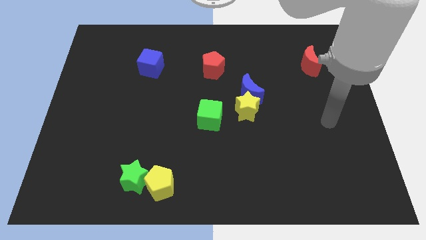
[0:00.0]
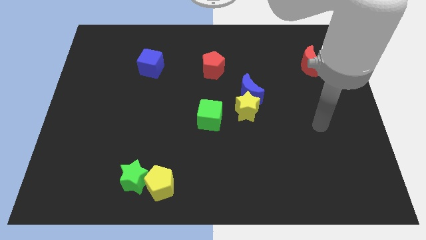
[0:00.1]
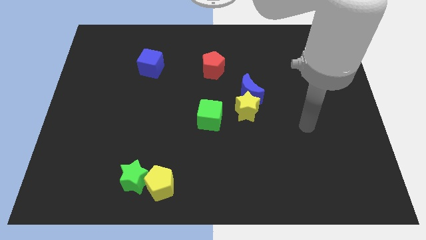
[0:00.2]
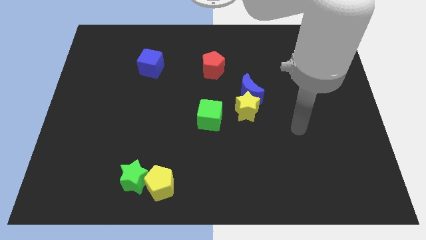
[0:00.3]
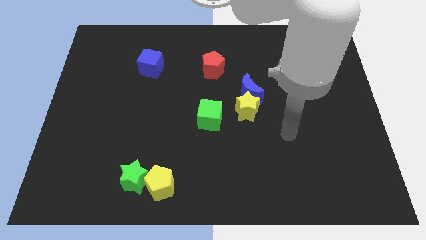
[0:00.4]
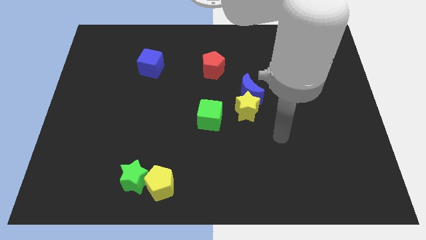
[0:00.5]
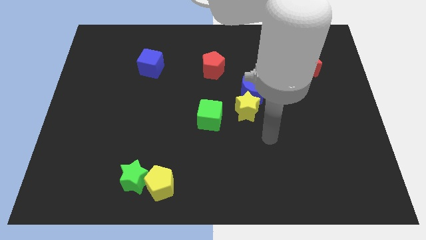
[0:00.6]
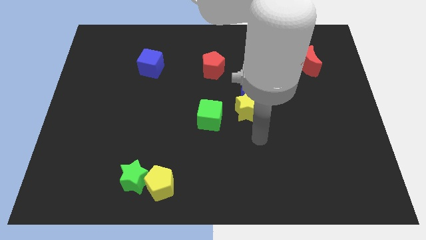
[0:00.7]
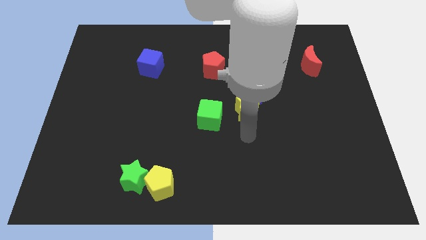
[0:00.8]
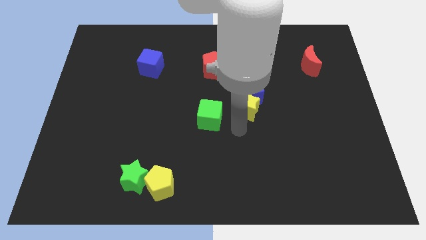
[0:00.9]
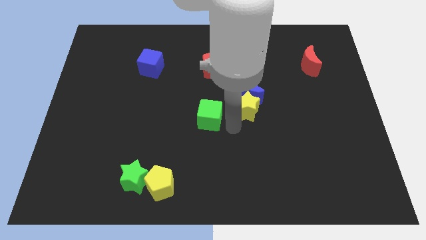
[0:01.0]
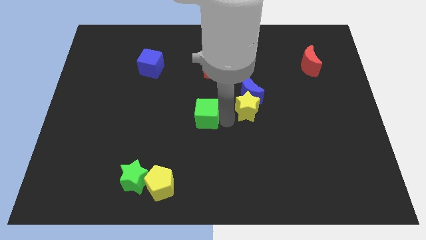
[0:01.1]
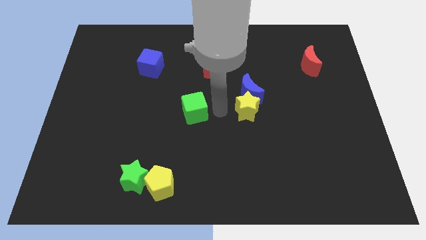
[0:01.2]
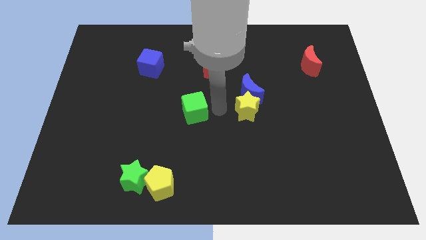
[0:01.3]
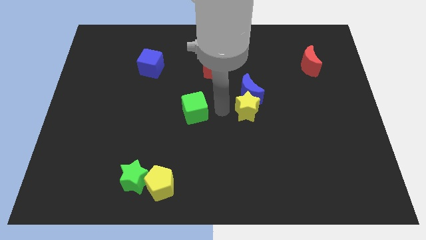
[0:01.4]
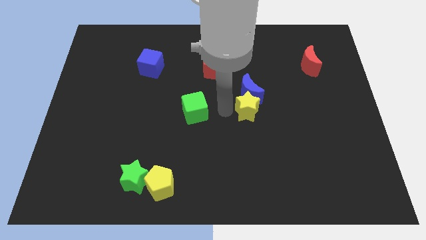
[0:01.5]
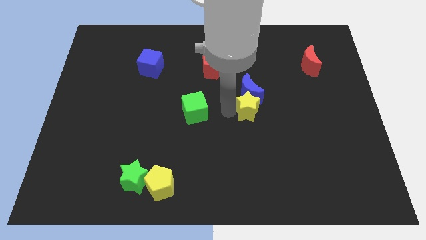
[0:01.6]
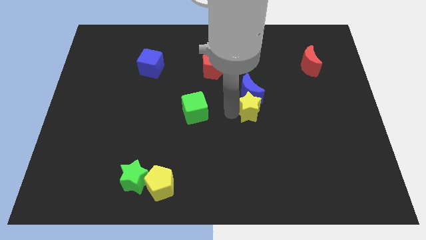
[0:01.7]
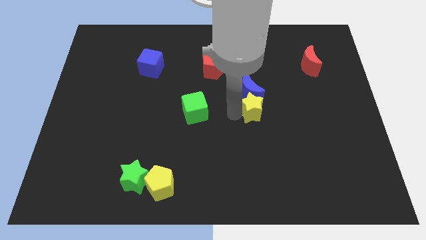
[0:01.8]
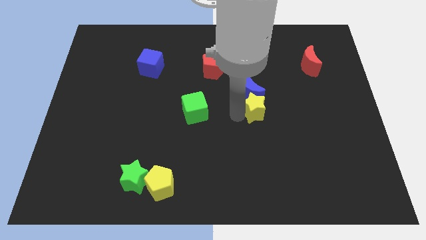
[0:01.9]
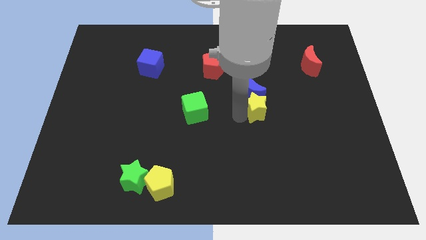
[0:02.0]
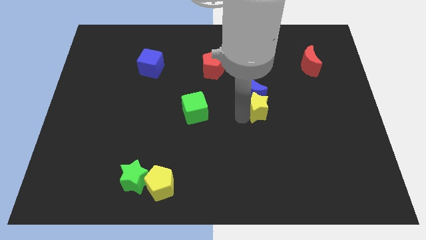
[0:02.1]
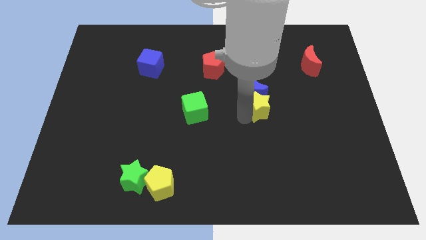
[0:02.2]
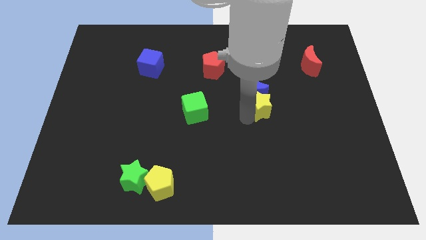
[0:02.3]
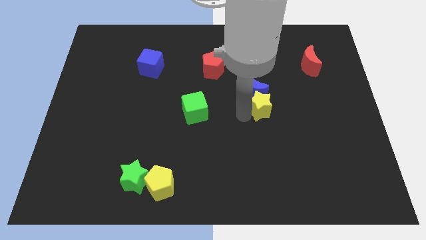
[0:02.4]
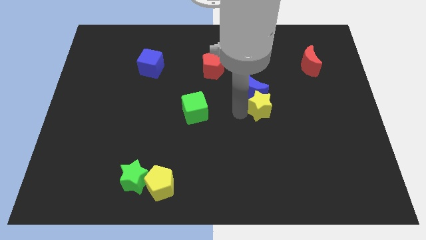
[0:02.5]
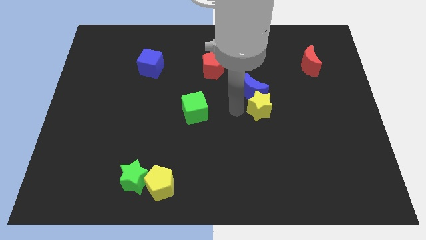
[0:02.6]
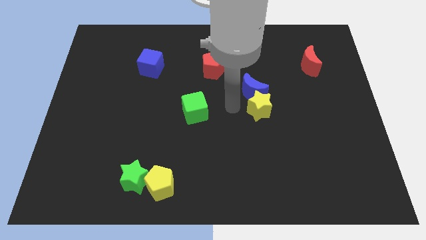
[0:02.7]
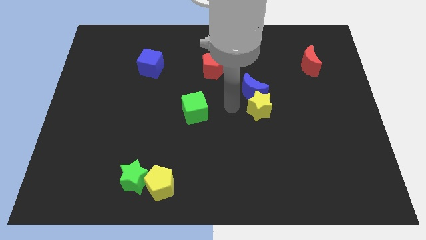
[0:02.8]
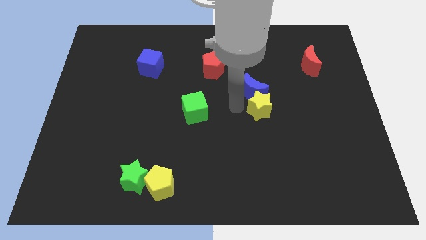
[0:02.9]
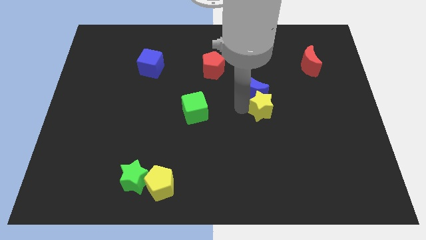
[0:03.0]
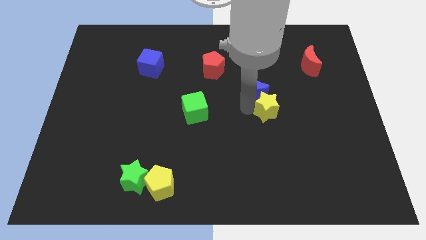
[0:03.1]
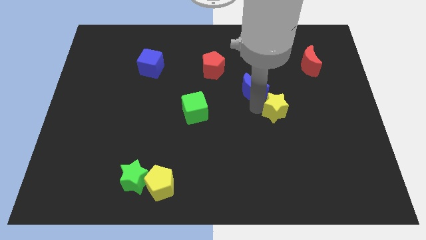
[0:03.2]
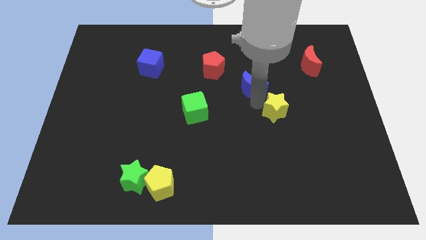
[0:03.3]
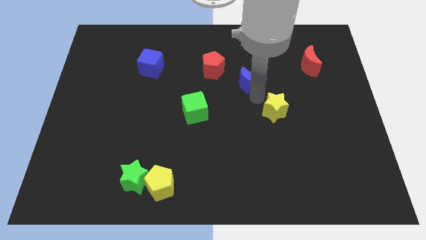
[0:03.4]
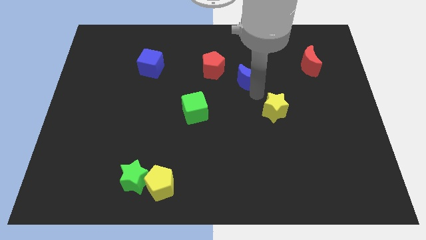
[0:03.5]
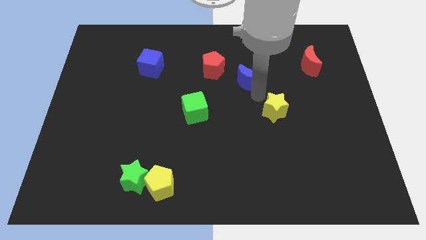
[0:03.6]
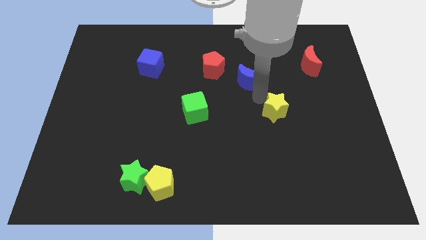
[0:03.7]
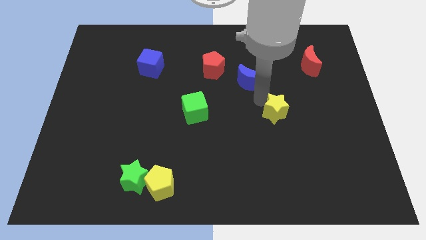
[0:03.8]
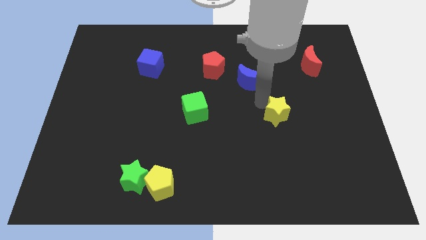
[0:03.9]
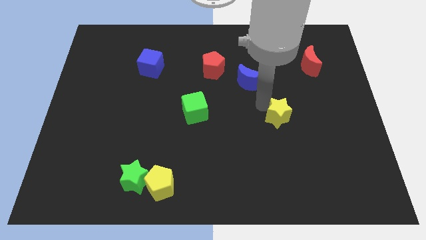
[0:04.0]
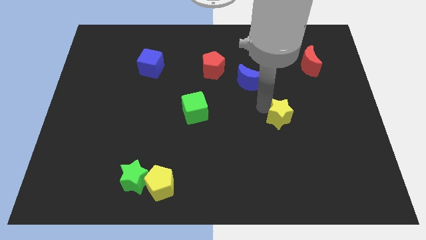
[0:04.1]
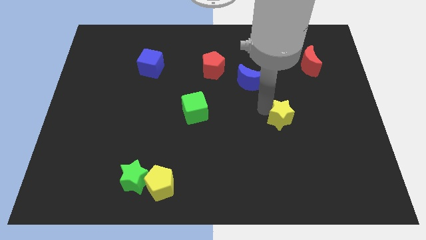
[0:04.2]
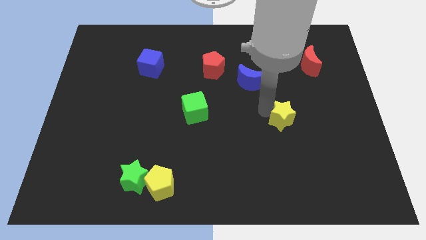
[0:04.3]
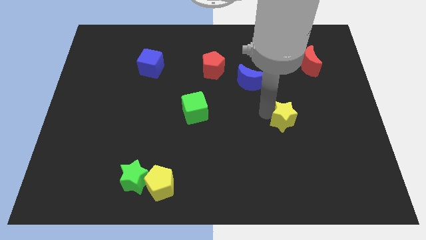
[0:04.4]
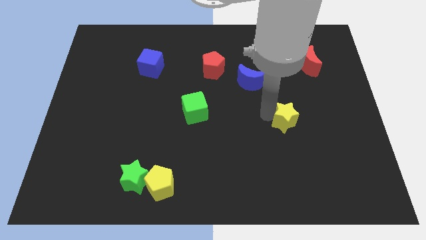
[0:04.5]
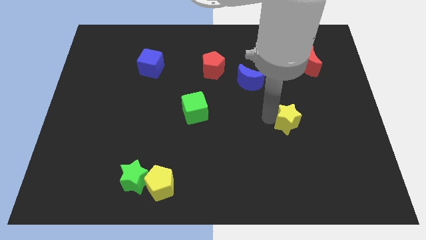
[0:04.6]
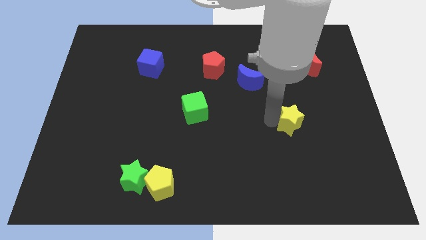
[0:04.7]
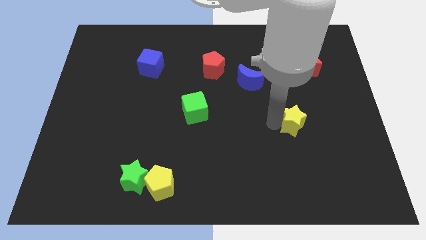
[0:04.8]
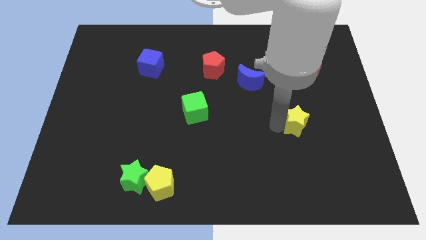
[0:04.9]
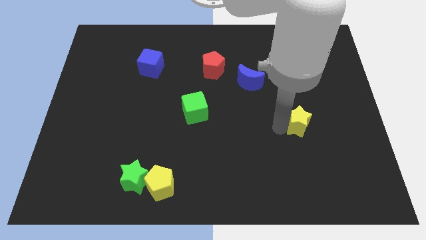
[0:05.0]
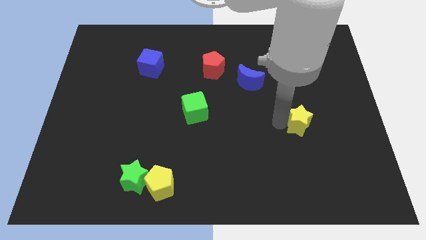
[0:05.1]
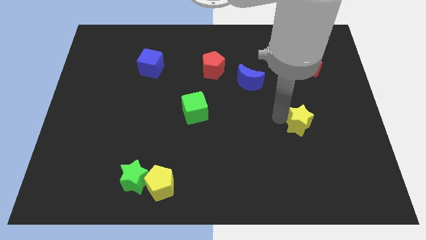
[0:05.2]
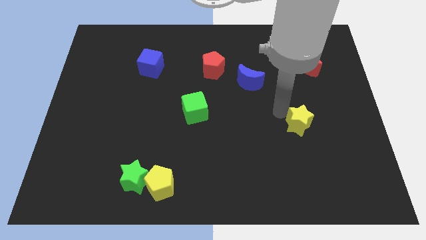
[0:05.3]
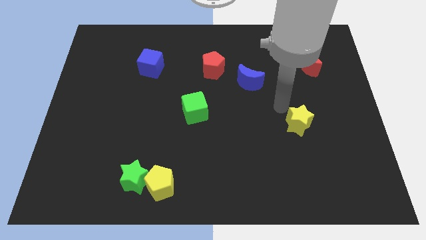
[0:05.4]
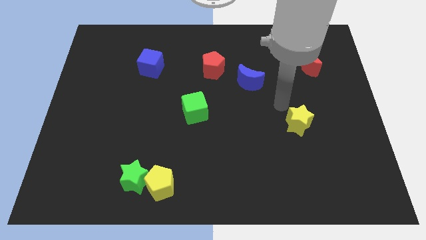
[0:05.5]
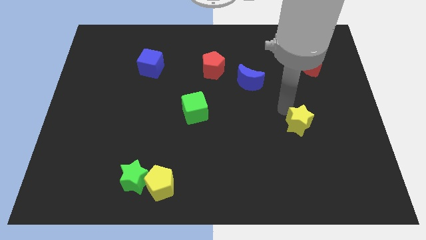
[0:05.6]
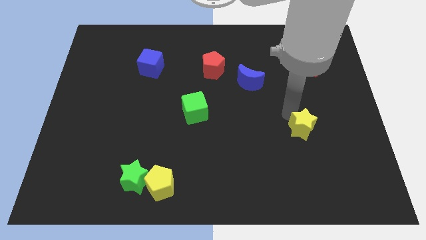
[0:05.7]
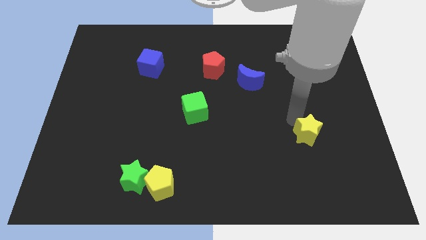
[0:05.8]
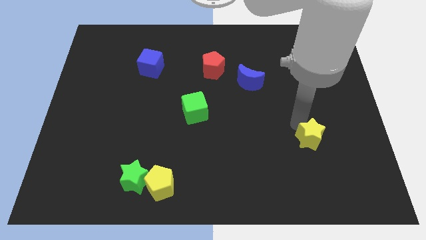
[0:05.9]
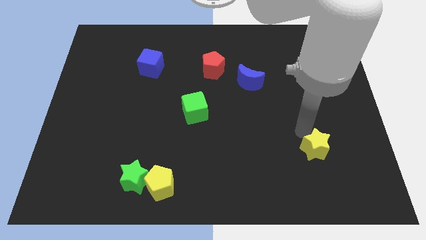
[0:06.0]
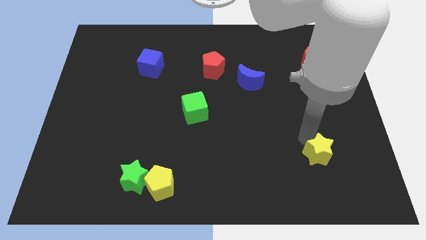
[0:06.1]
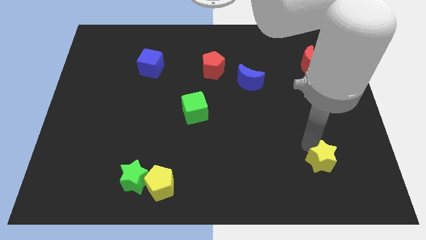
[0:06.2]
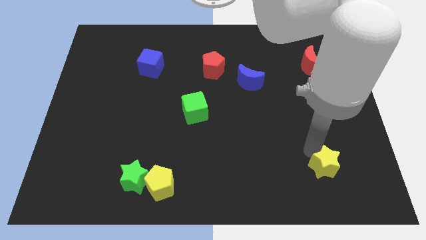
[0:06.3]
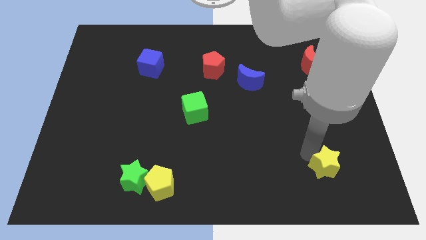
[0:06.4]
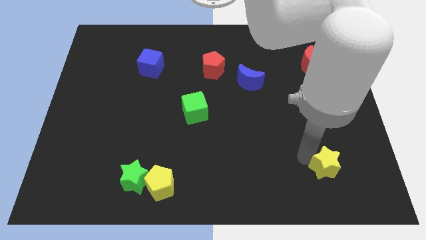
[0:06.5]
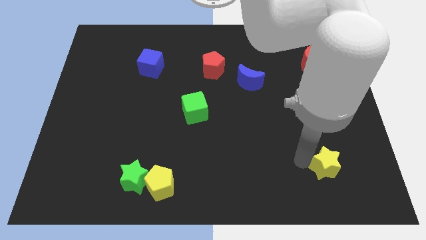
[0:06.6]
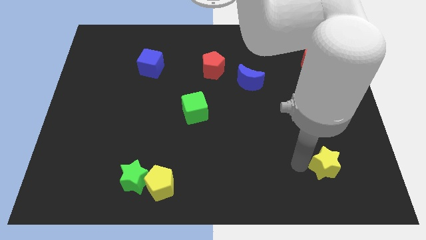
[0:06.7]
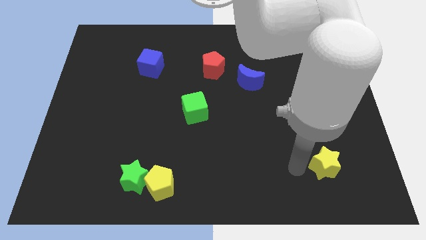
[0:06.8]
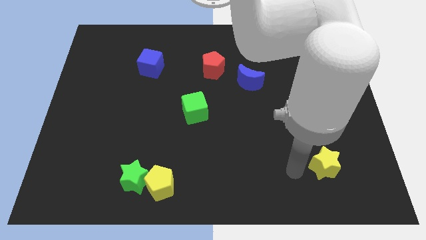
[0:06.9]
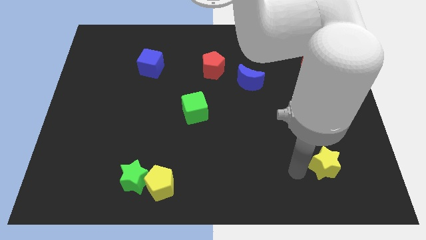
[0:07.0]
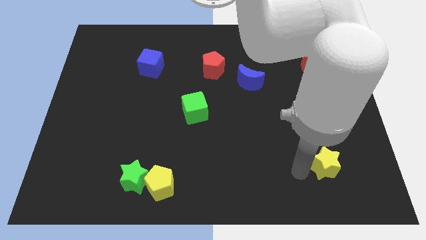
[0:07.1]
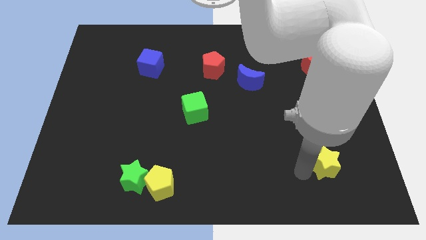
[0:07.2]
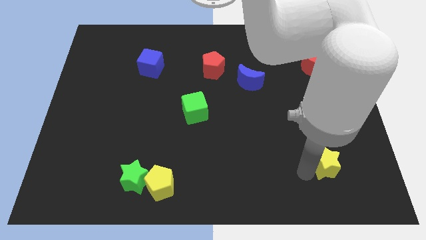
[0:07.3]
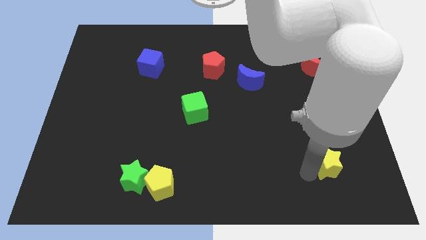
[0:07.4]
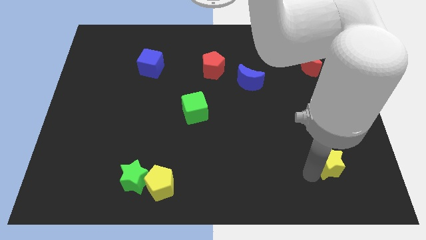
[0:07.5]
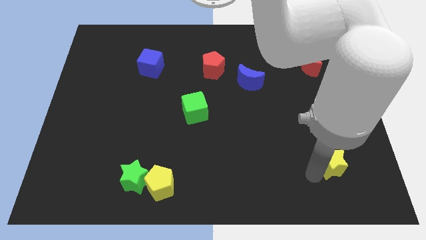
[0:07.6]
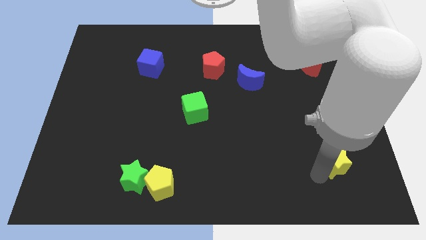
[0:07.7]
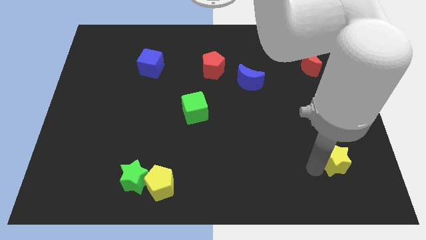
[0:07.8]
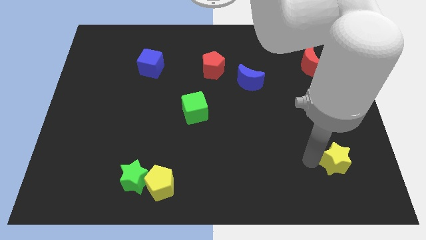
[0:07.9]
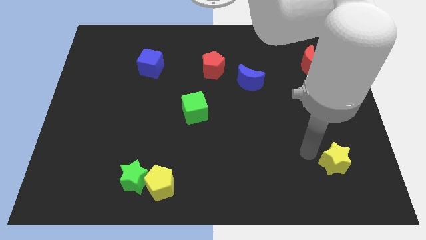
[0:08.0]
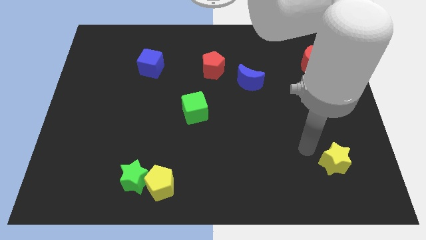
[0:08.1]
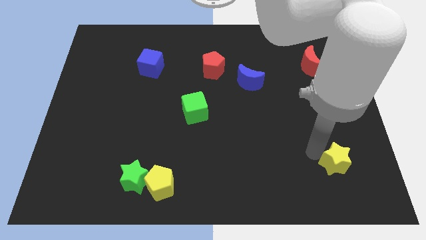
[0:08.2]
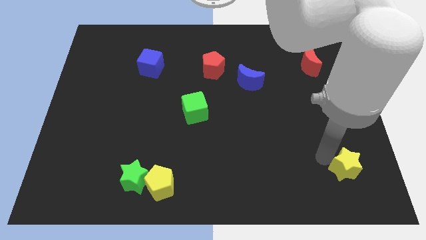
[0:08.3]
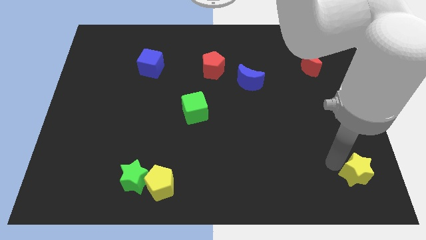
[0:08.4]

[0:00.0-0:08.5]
push the yellow star to the bottom right corner
